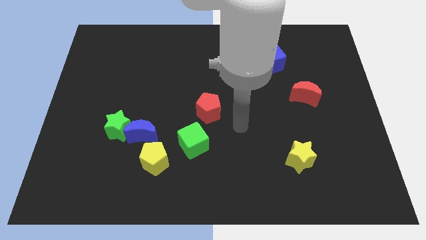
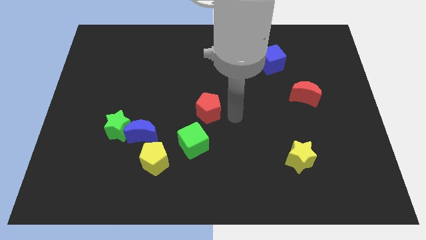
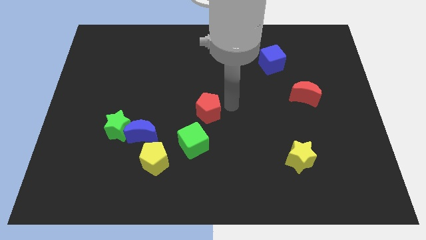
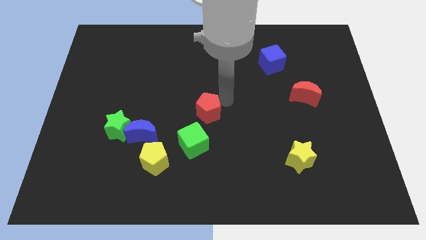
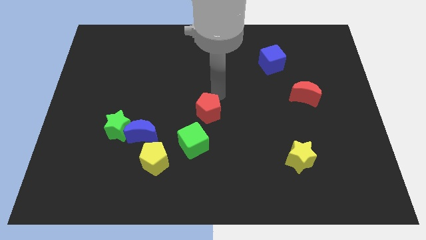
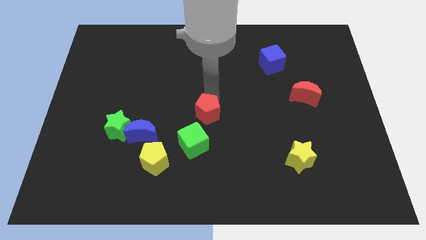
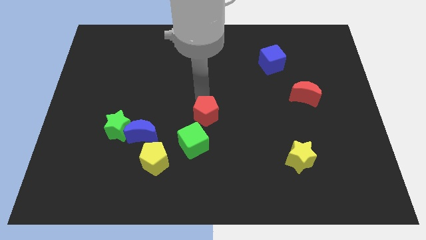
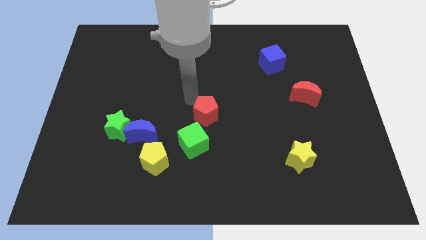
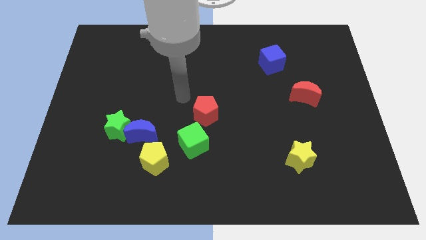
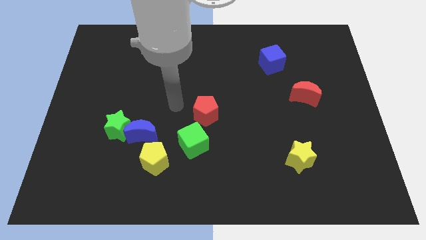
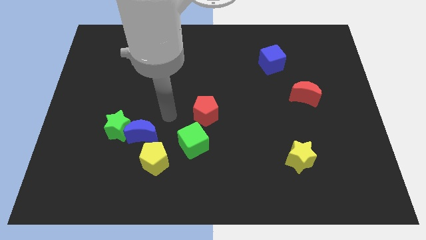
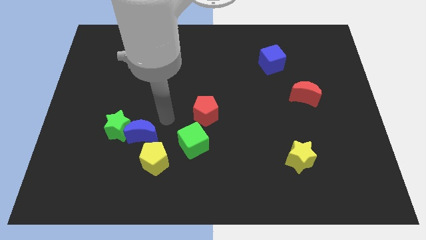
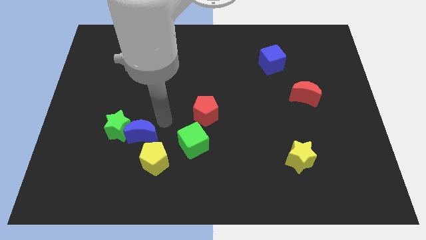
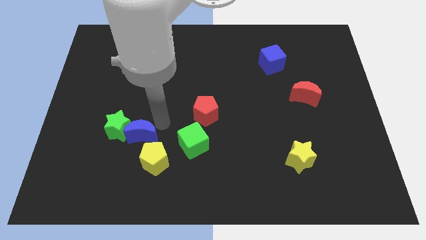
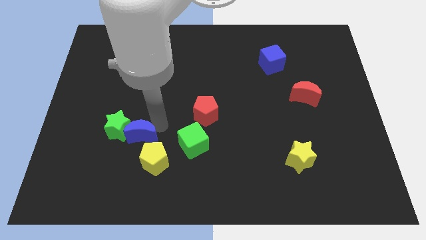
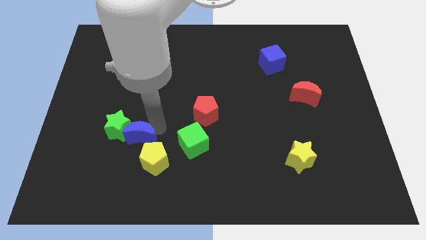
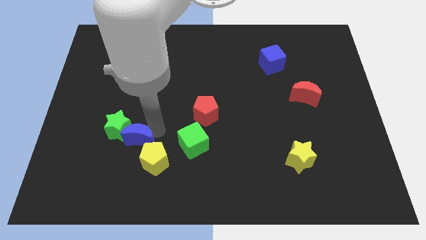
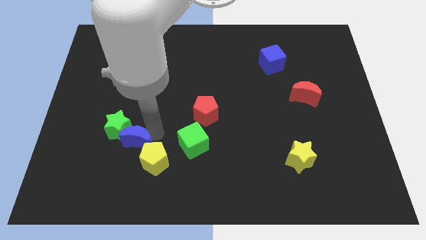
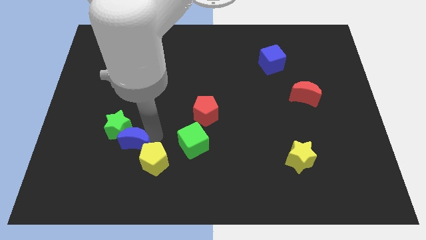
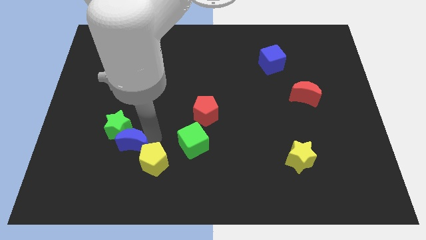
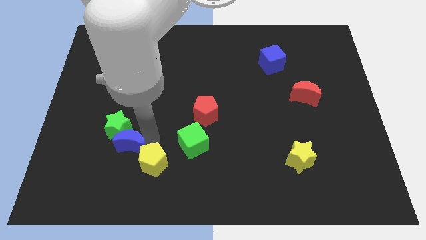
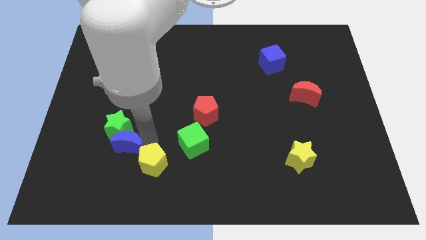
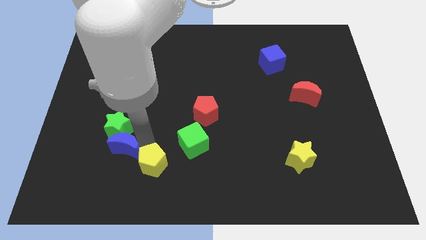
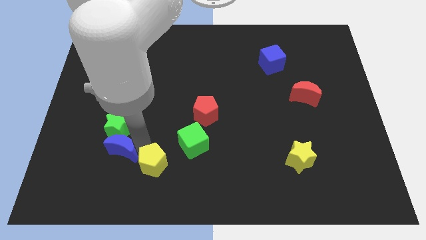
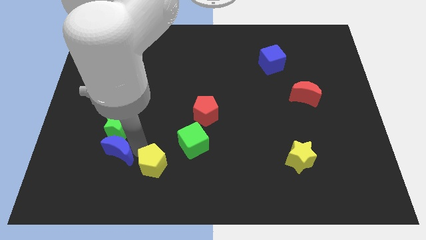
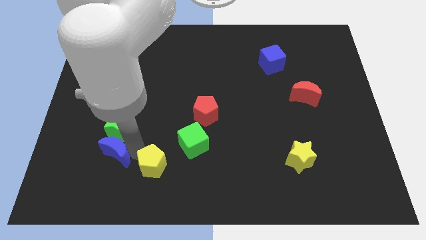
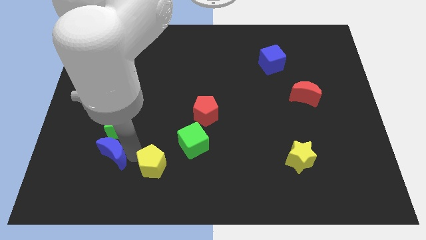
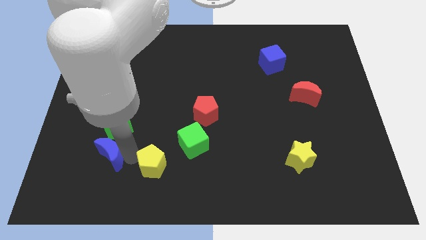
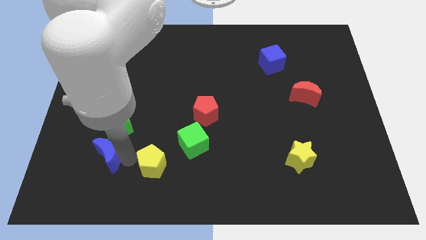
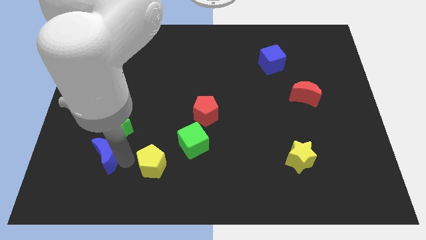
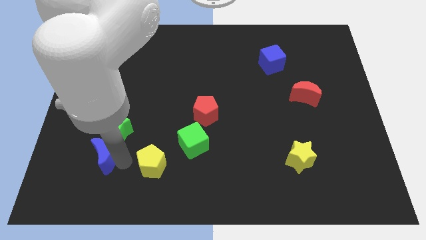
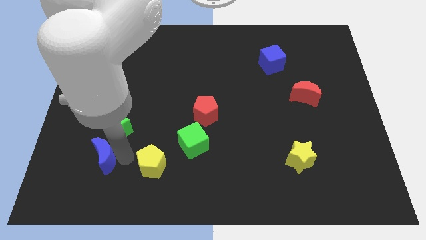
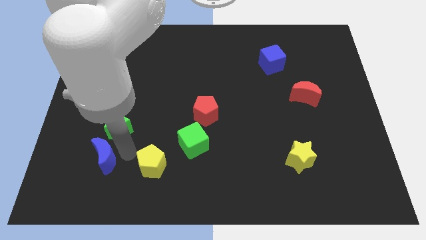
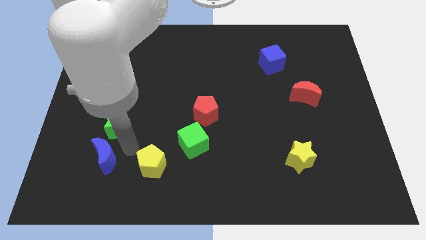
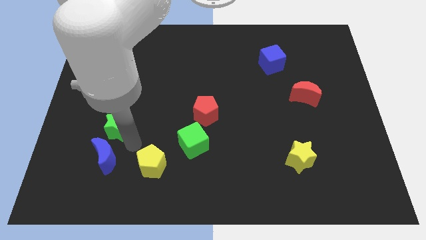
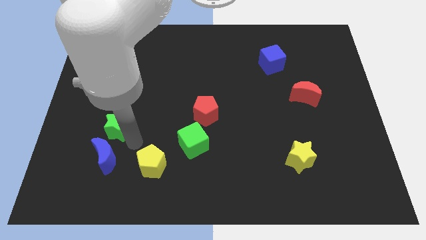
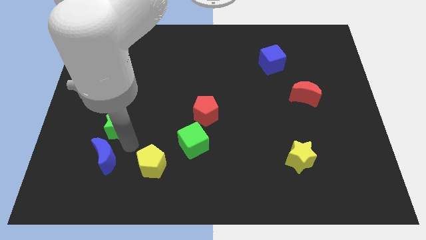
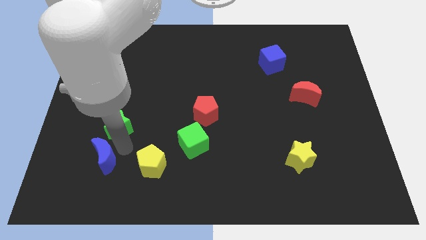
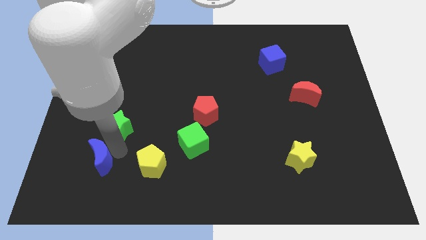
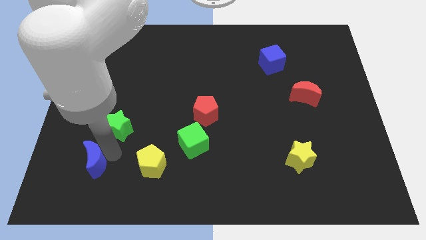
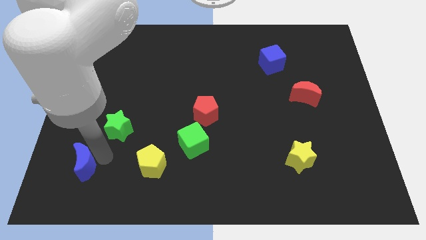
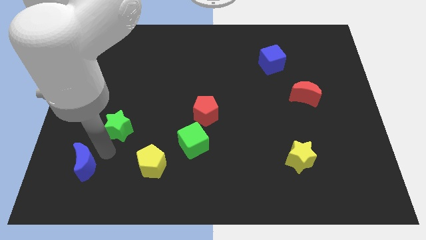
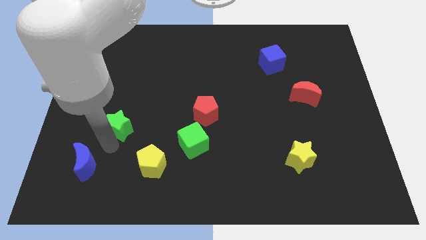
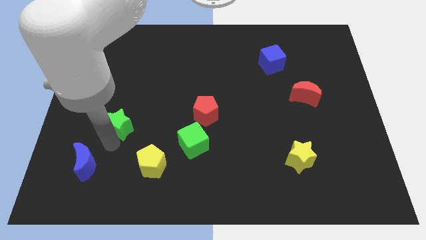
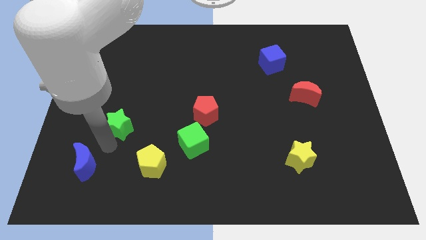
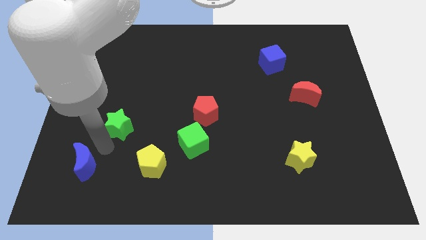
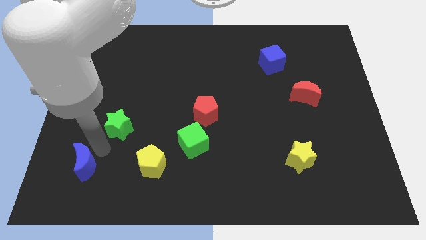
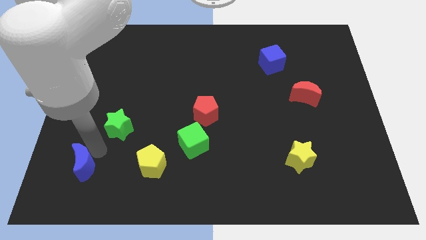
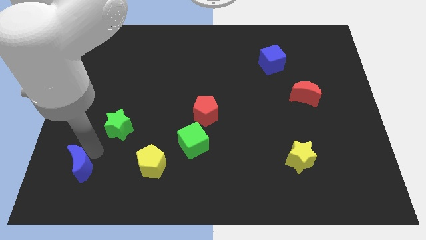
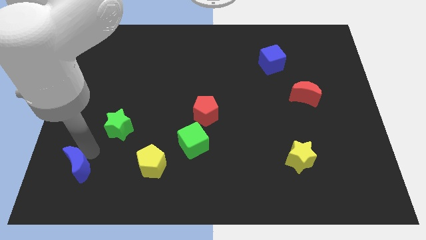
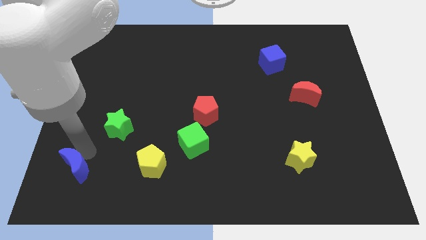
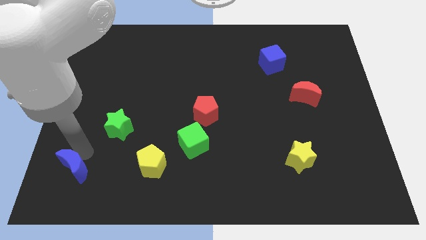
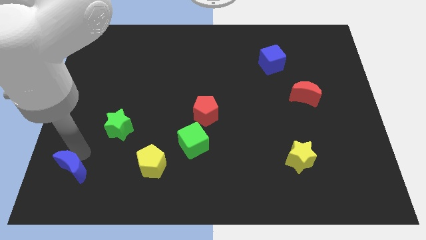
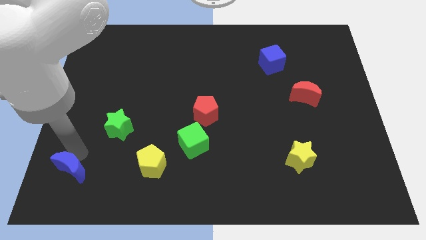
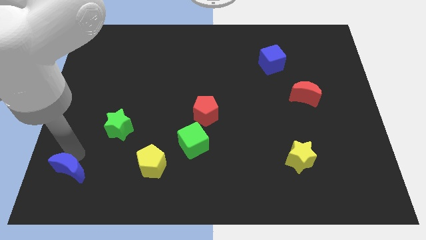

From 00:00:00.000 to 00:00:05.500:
slide the blue moon to the bottom left corner

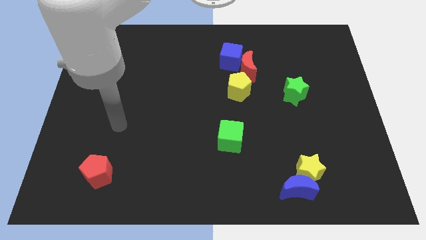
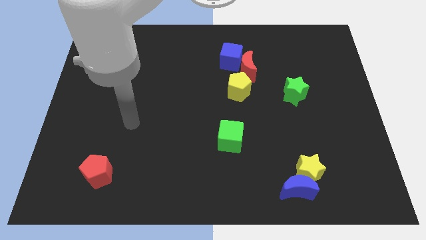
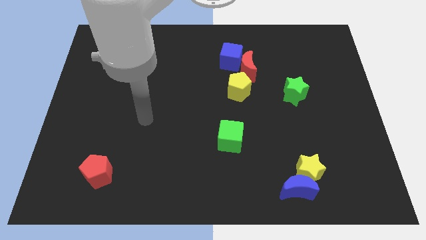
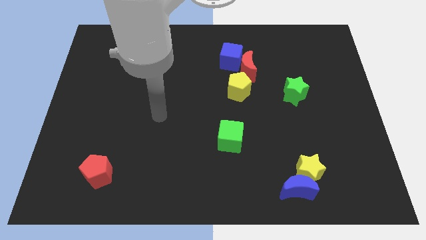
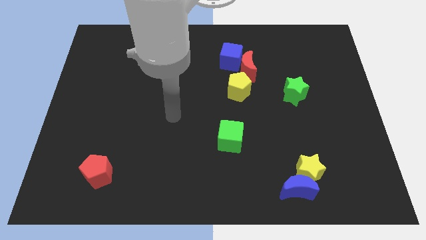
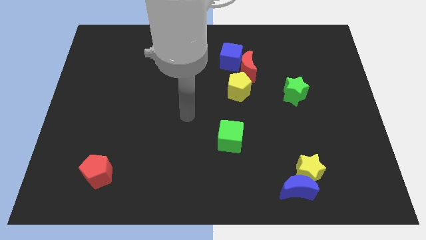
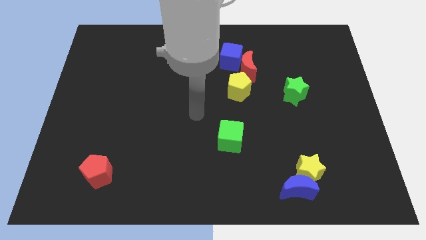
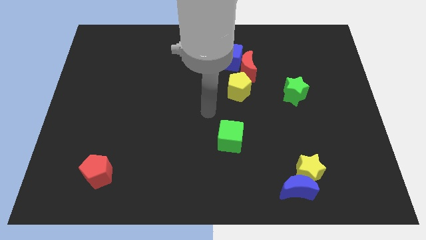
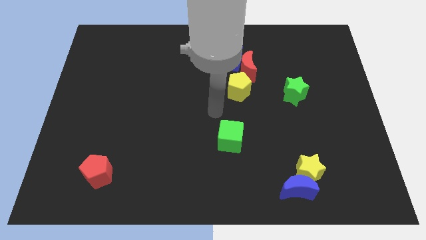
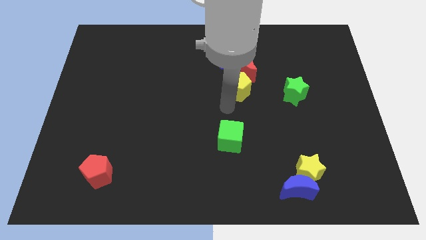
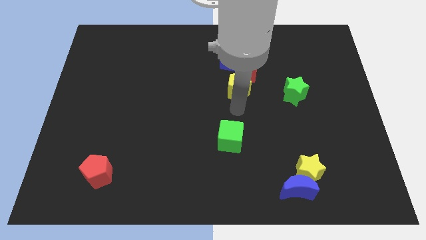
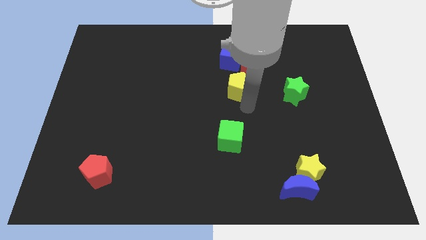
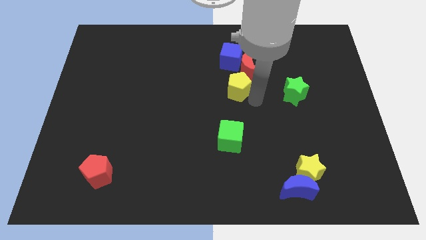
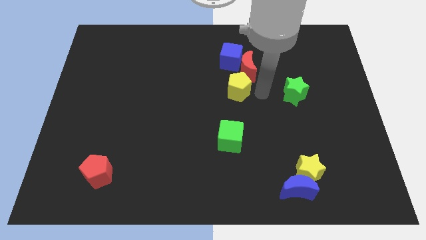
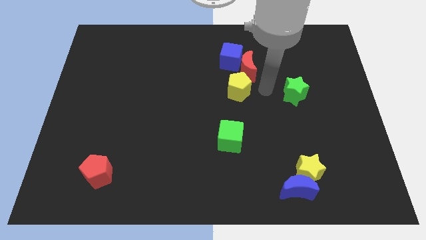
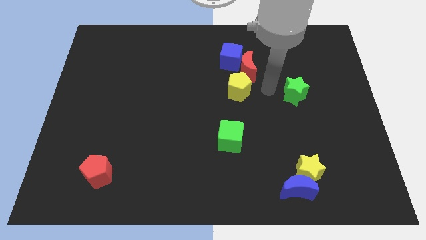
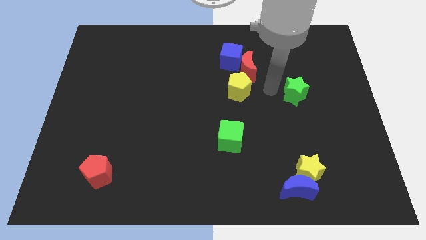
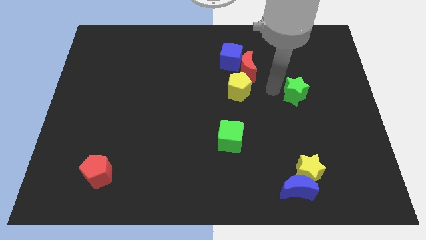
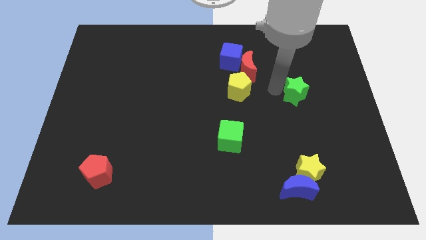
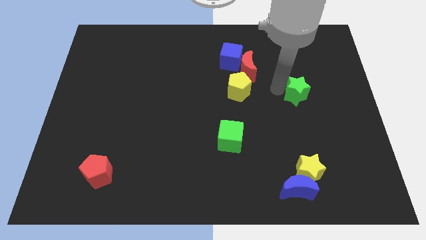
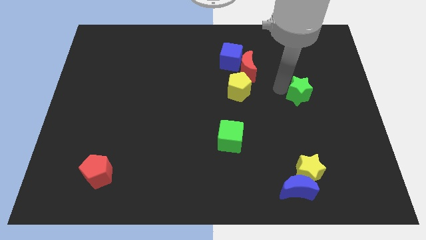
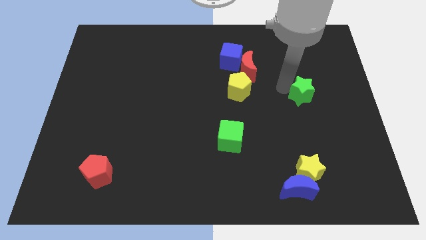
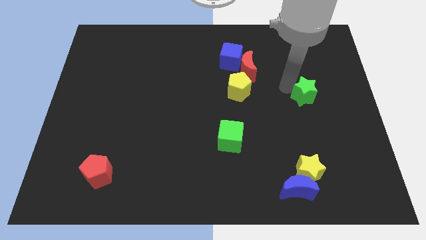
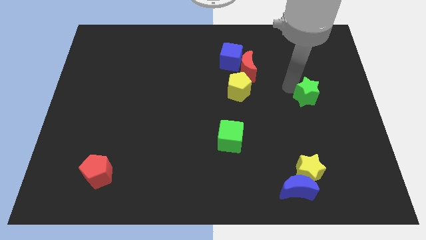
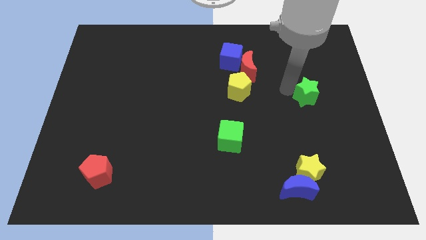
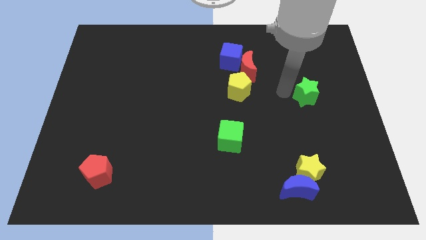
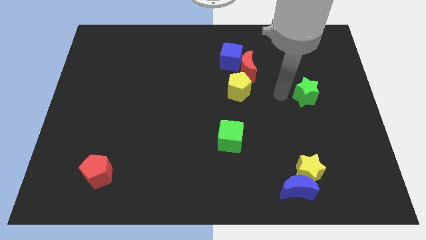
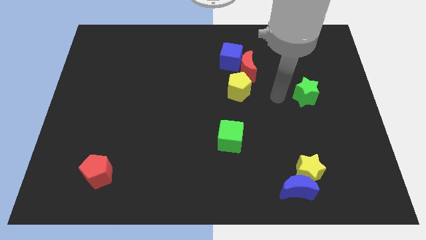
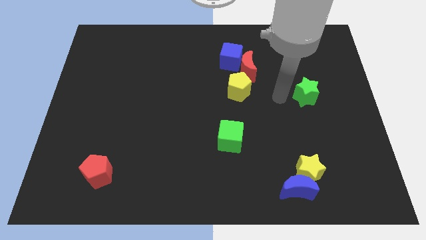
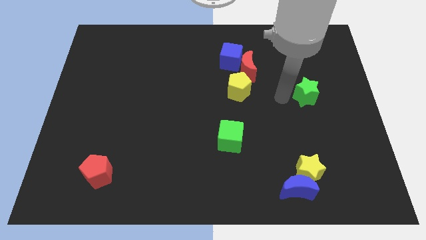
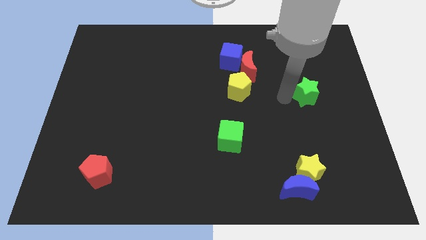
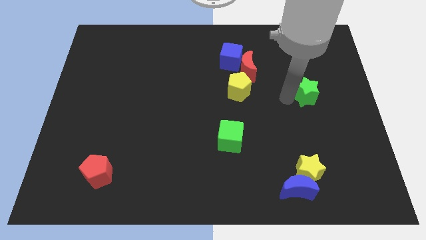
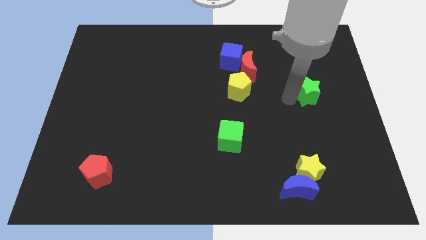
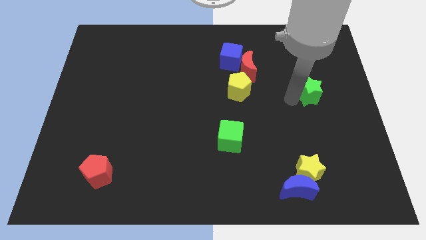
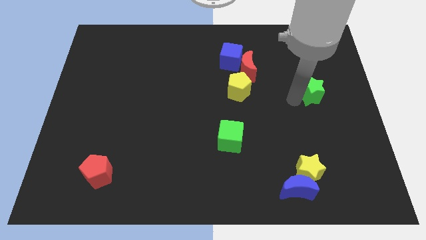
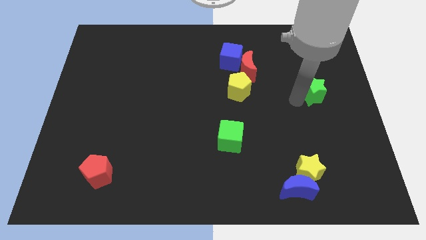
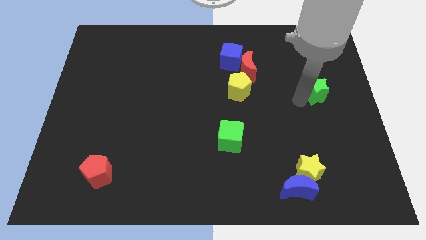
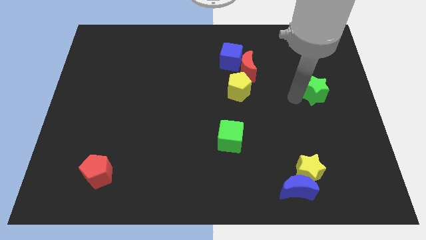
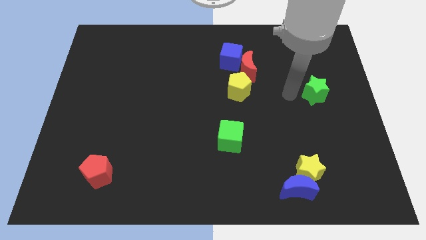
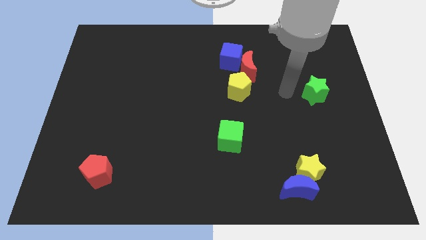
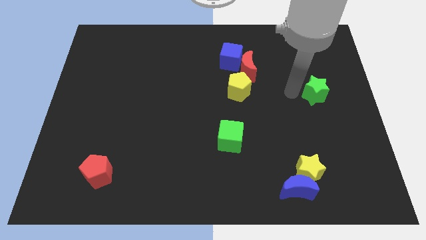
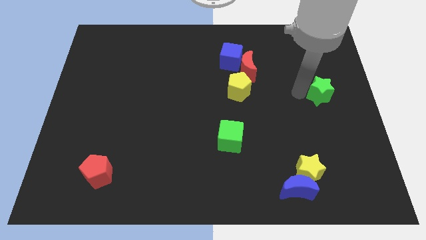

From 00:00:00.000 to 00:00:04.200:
put the green star to the right side of the board
